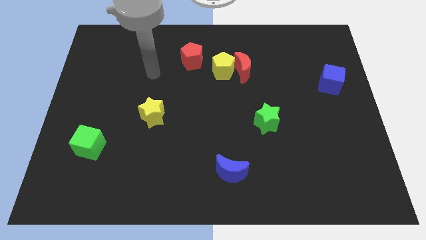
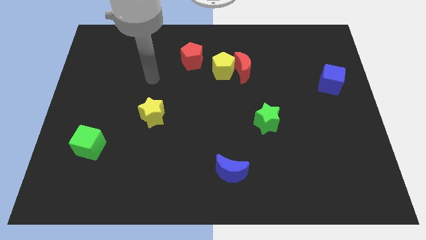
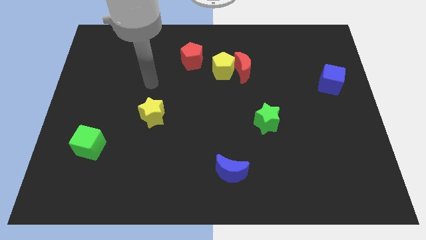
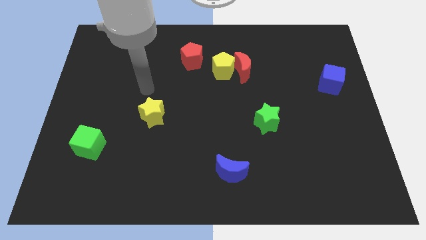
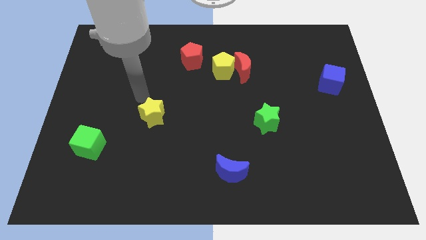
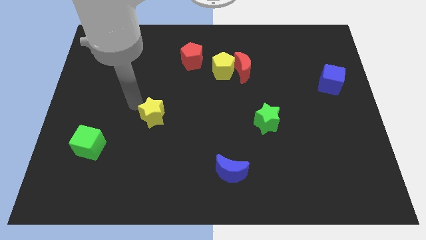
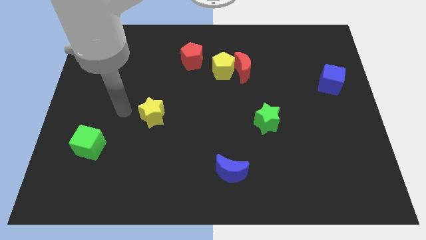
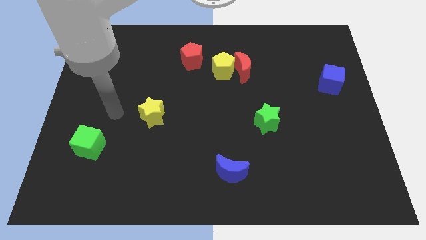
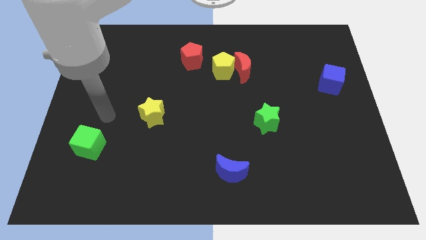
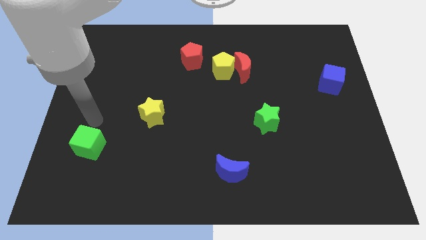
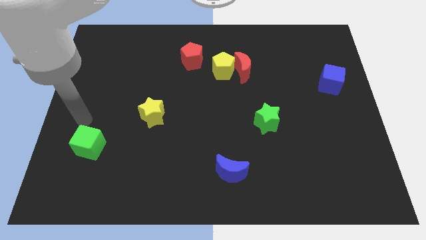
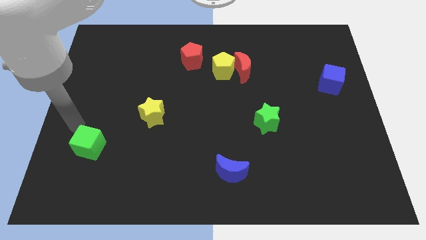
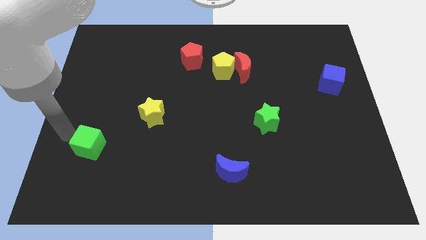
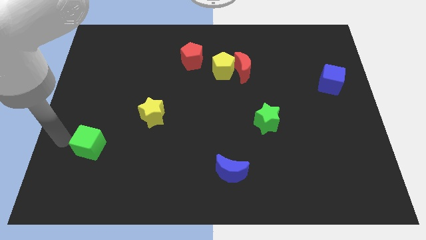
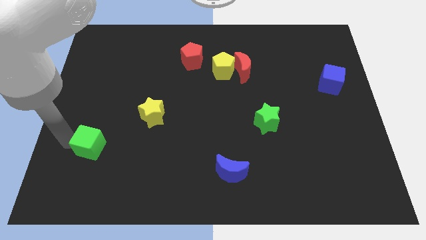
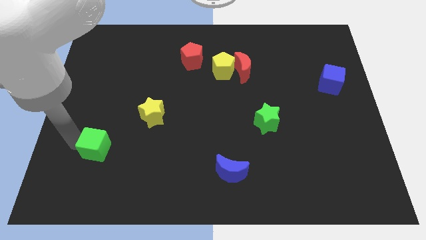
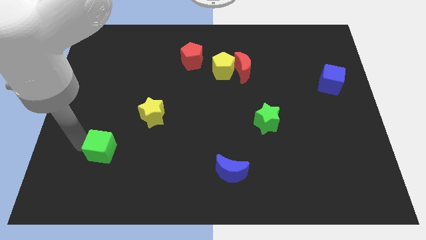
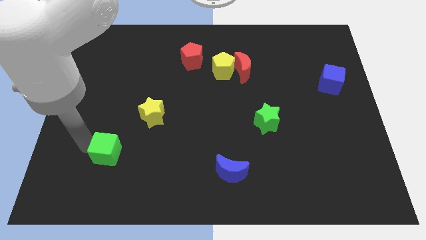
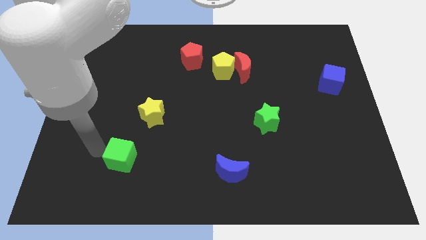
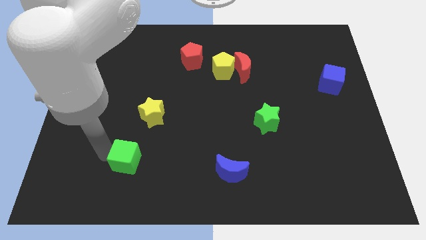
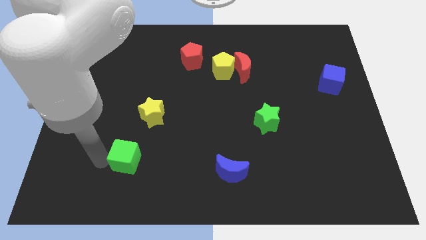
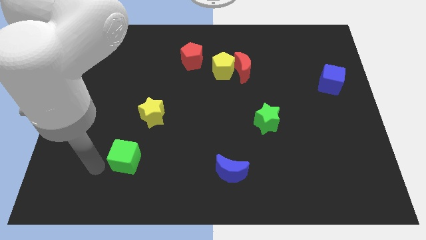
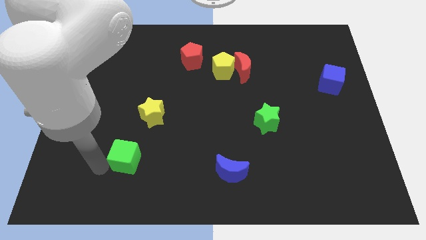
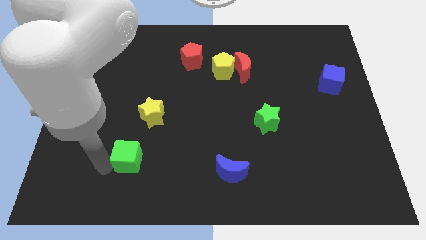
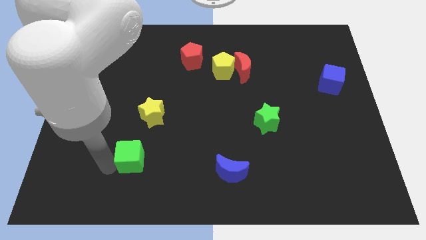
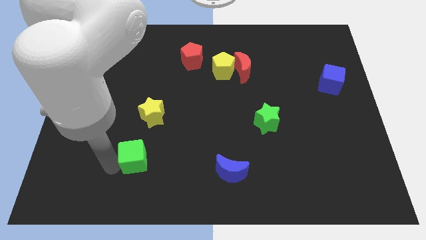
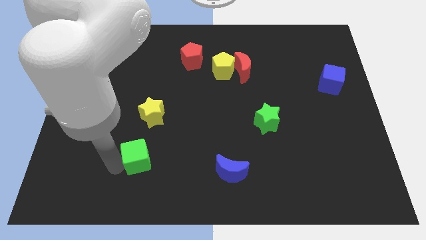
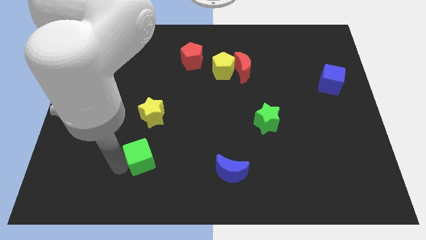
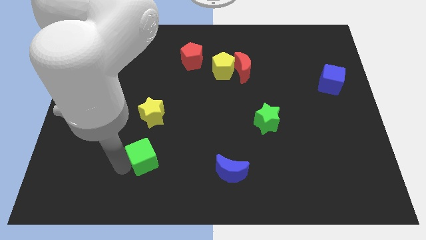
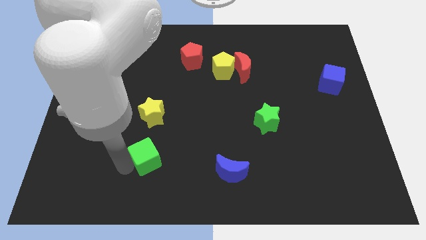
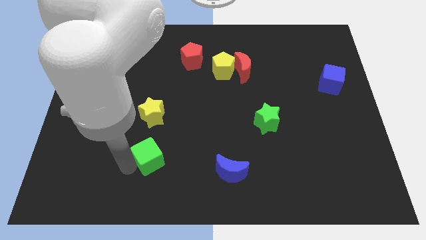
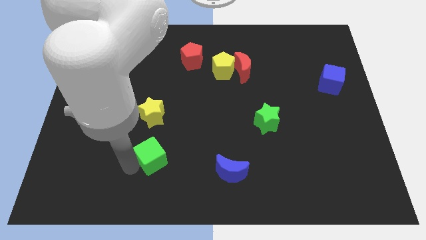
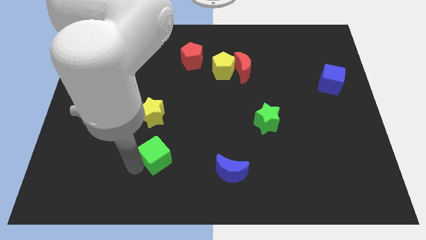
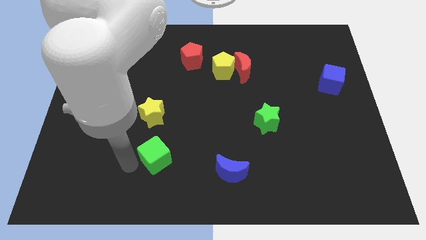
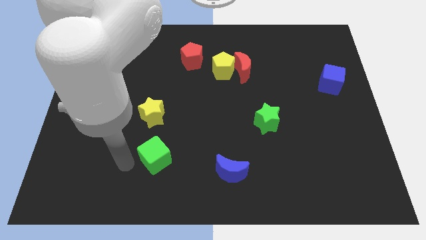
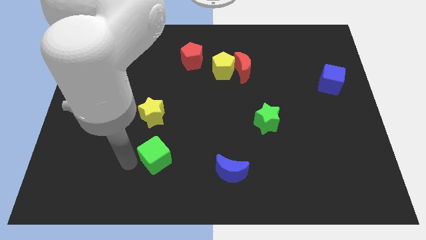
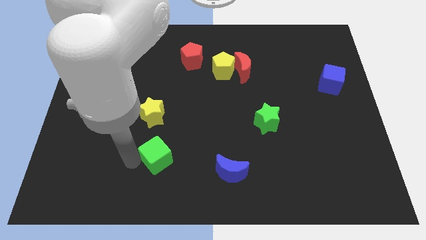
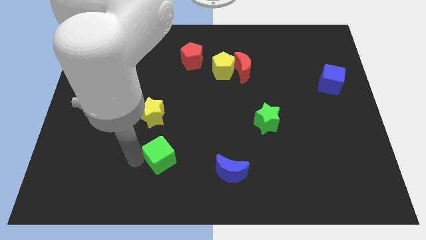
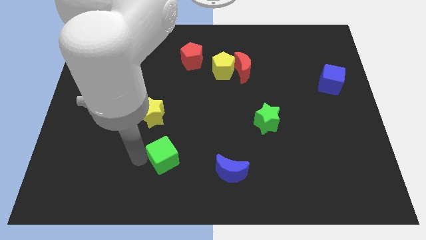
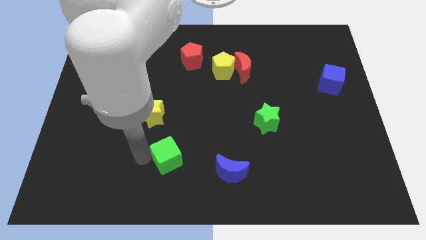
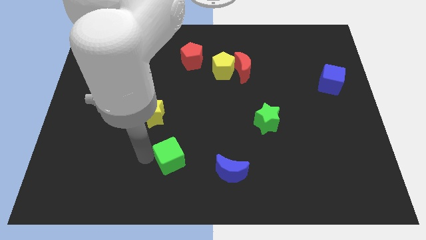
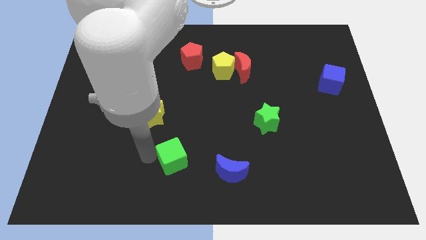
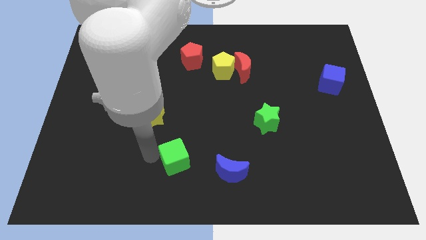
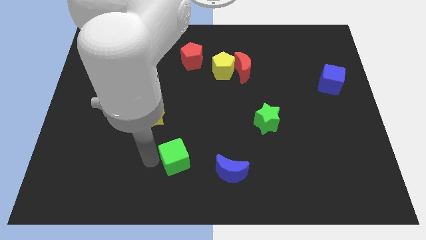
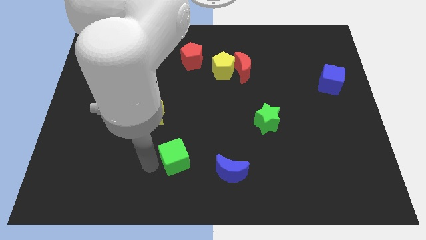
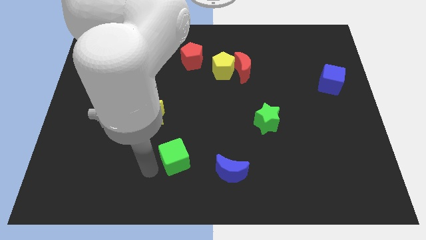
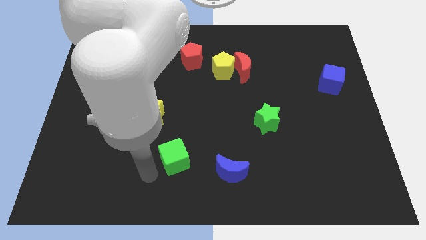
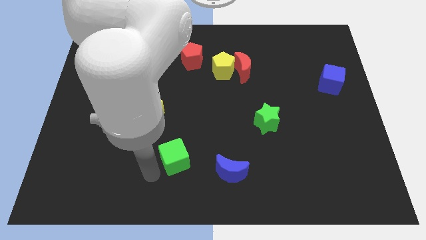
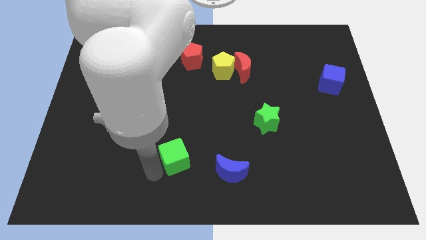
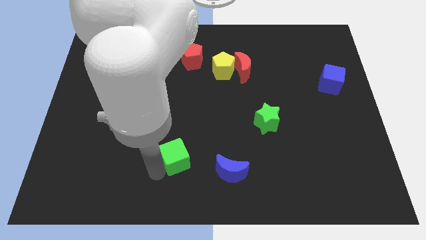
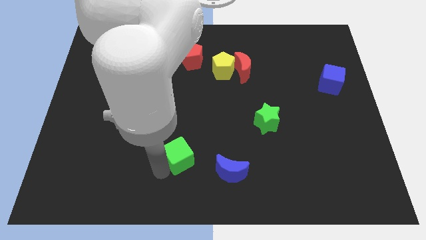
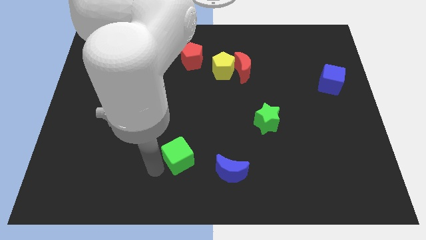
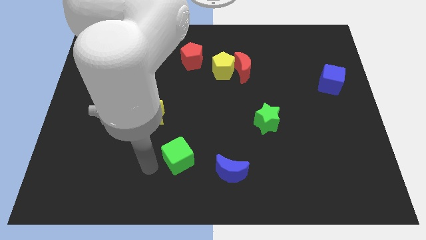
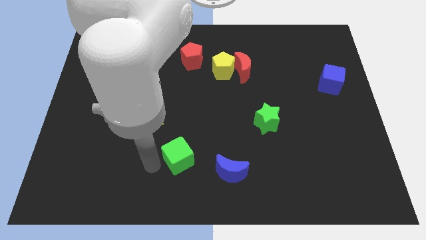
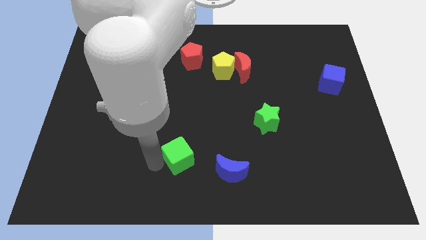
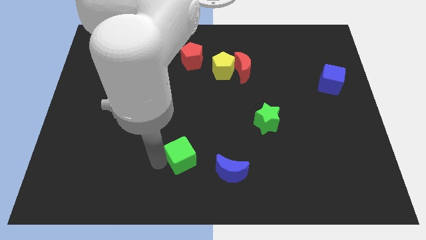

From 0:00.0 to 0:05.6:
move the green cube to the right

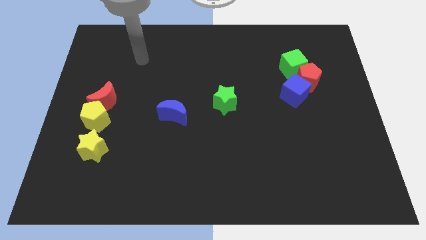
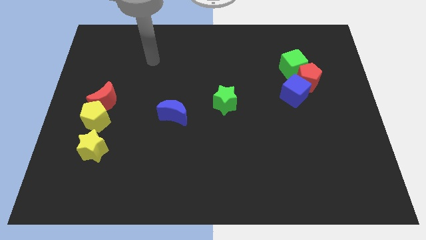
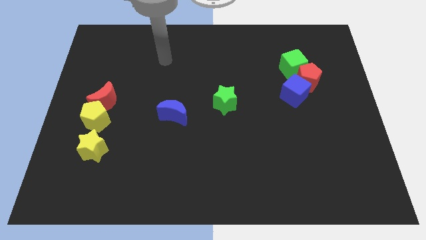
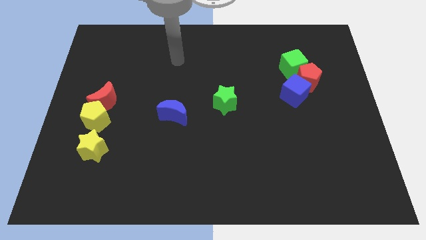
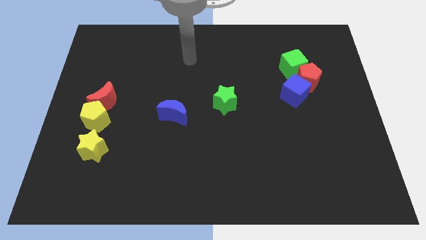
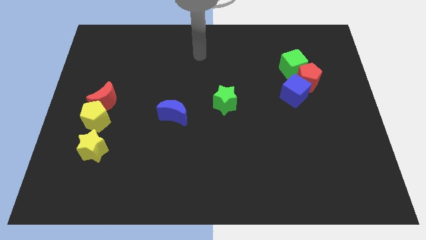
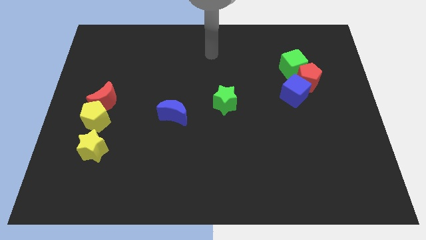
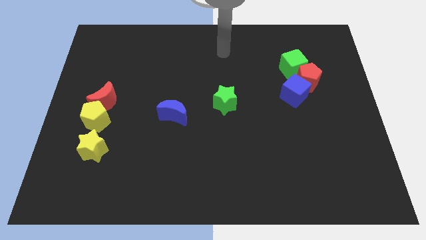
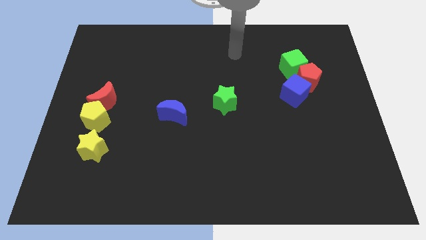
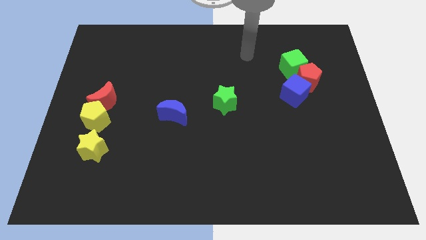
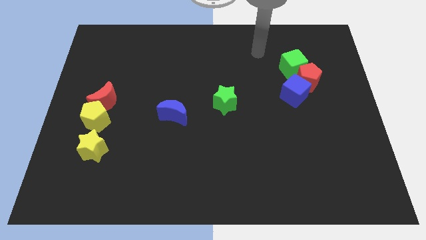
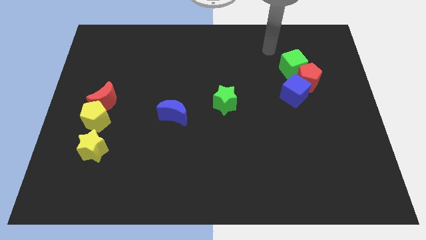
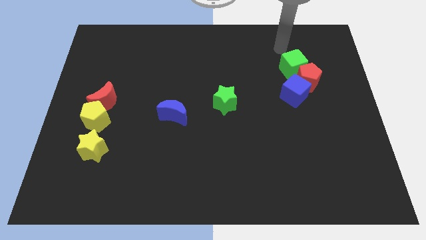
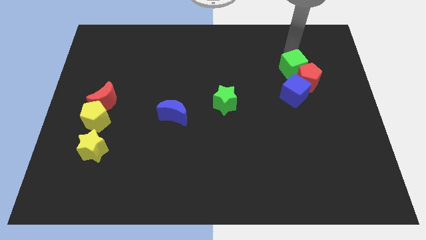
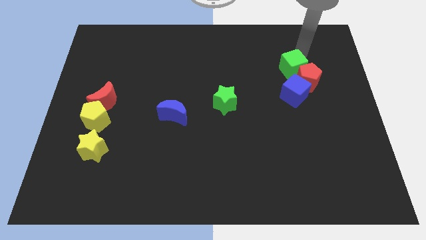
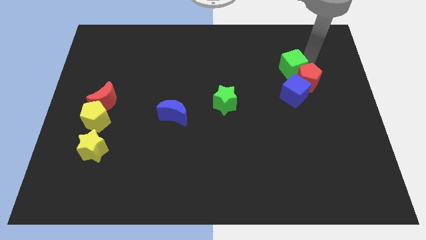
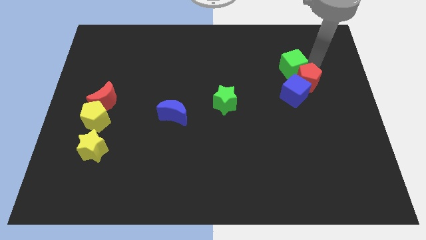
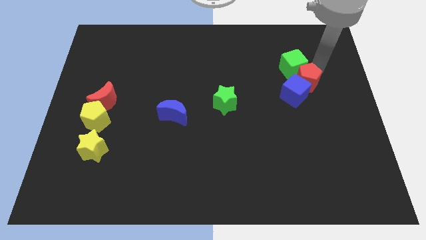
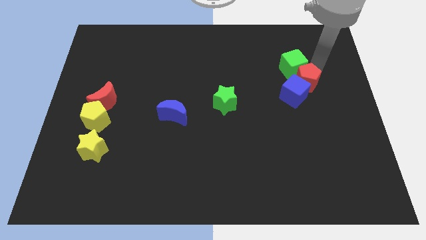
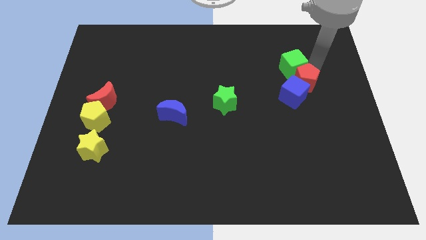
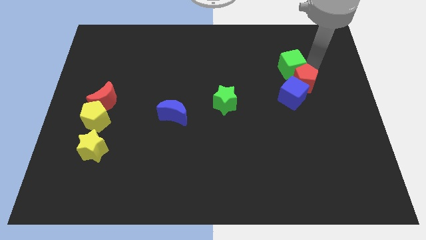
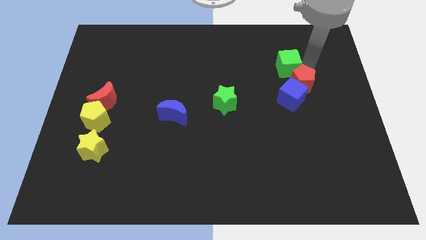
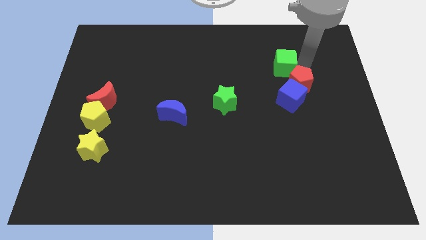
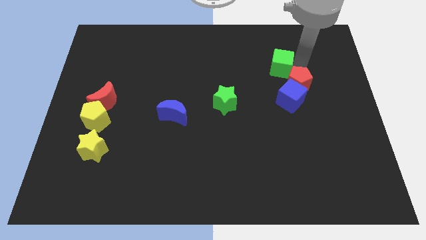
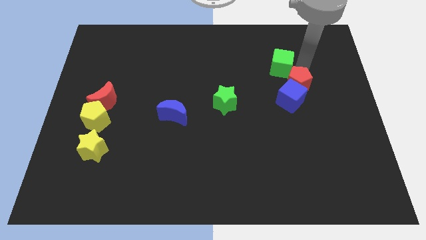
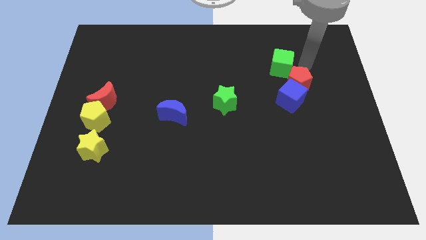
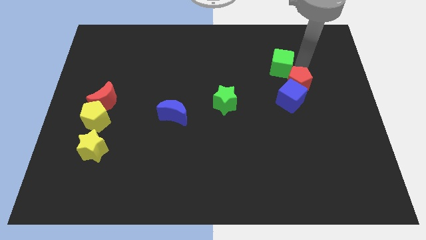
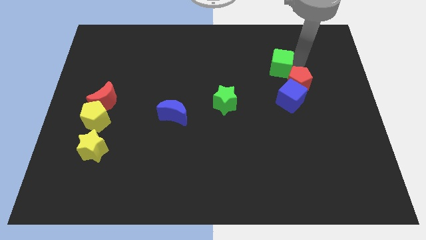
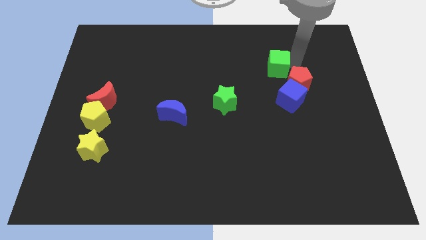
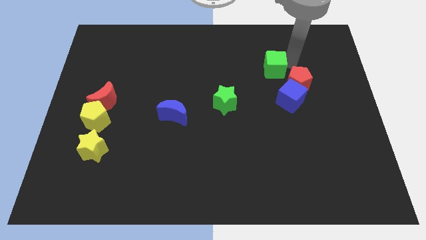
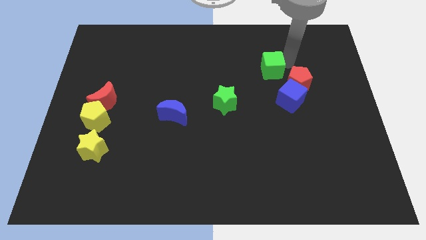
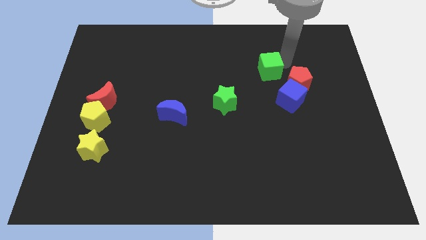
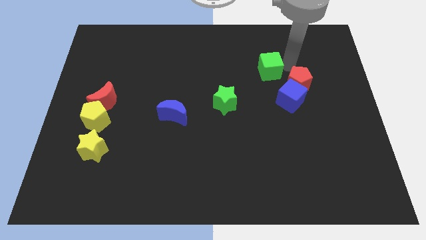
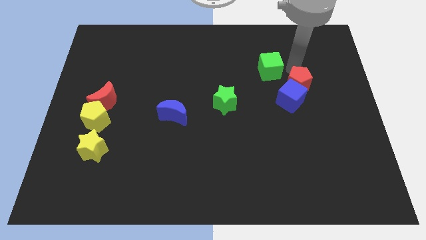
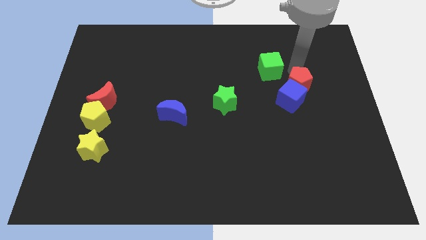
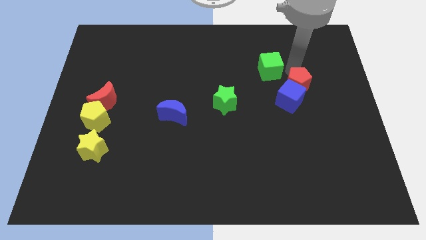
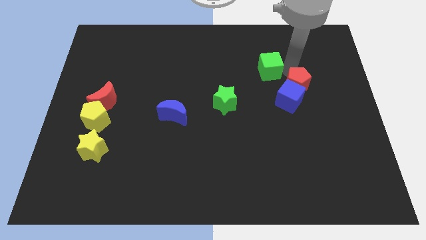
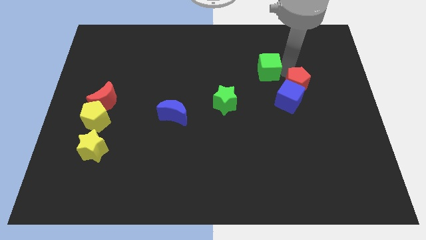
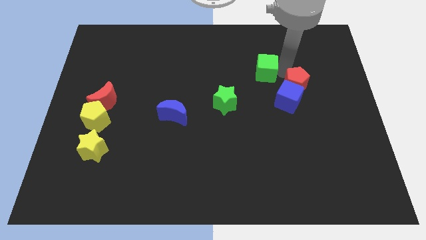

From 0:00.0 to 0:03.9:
push the green cube to the left a bit
